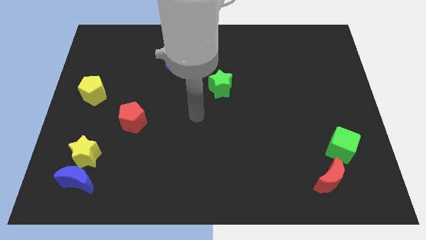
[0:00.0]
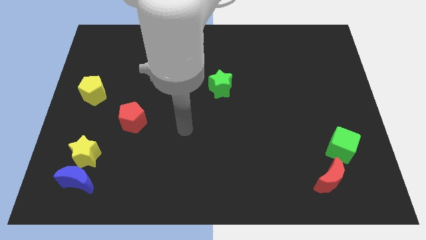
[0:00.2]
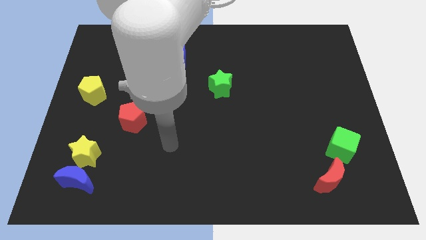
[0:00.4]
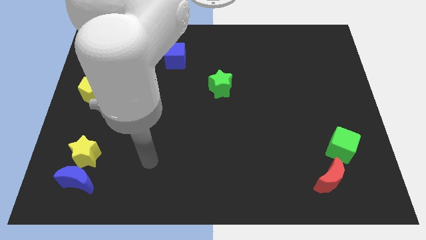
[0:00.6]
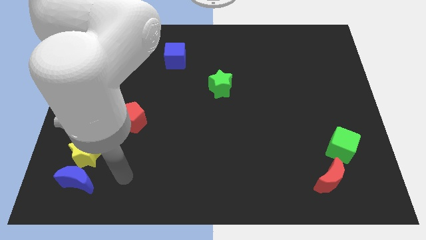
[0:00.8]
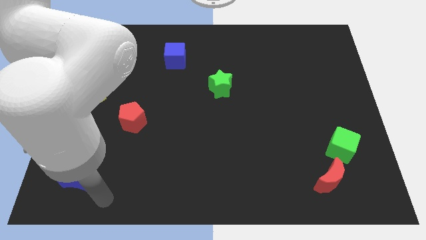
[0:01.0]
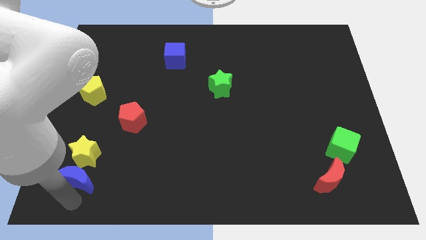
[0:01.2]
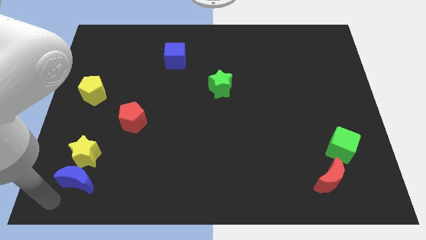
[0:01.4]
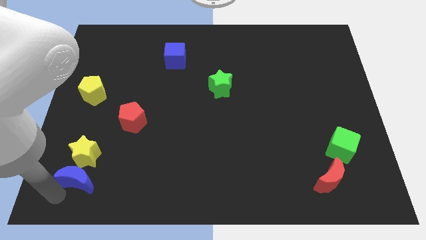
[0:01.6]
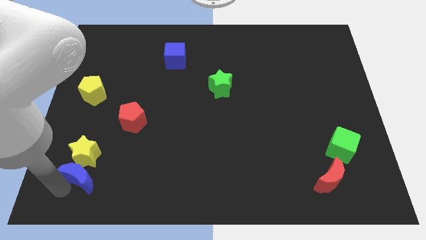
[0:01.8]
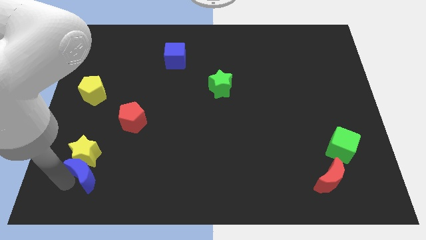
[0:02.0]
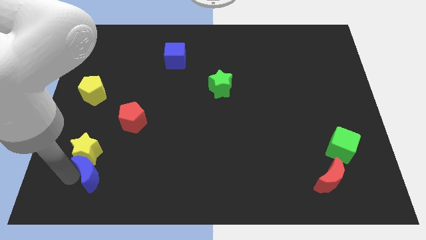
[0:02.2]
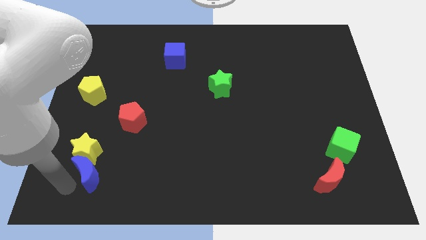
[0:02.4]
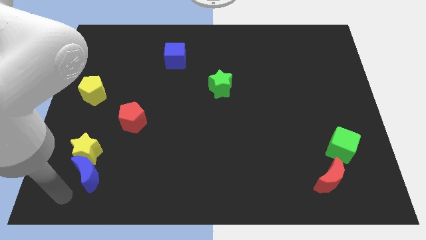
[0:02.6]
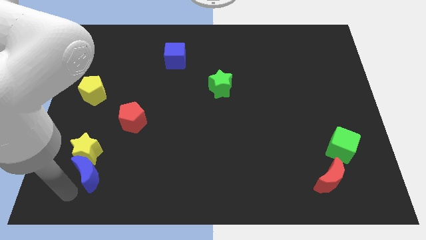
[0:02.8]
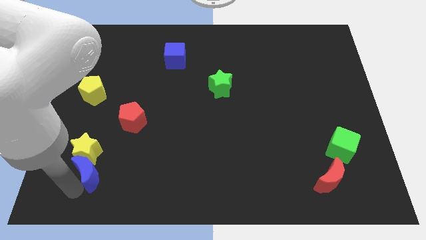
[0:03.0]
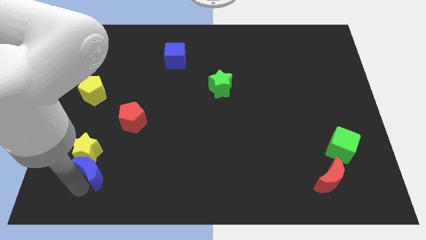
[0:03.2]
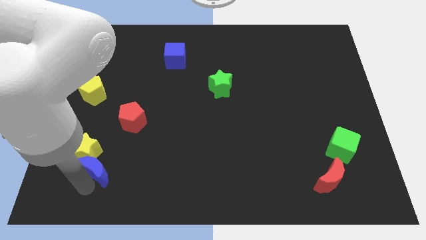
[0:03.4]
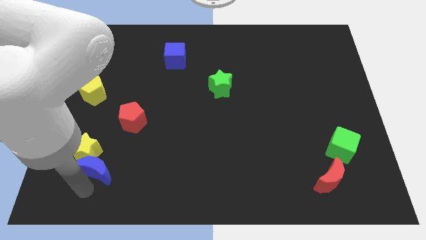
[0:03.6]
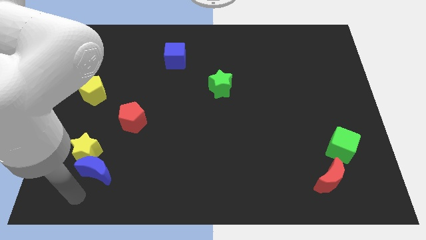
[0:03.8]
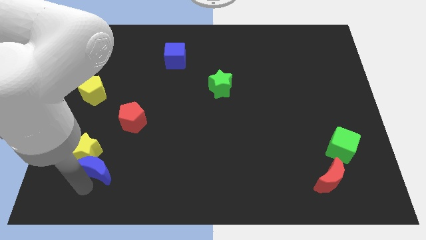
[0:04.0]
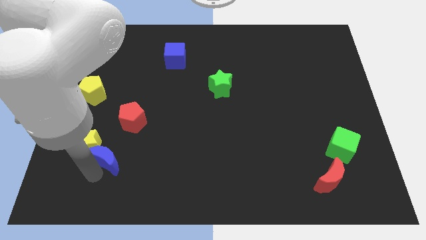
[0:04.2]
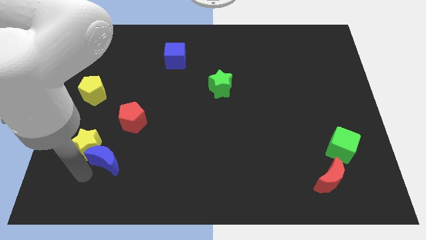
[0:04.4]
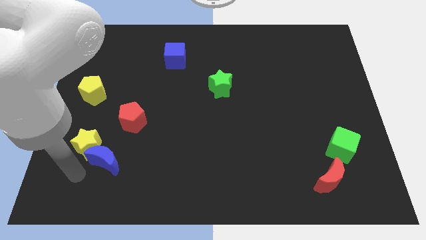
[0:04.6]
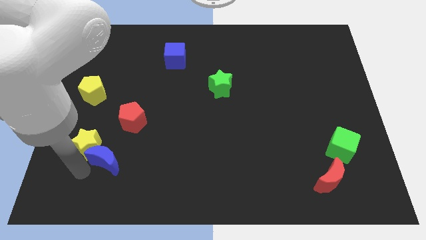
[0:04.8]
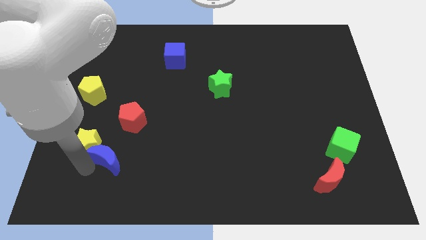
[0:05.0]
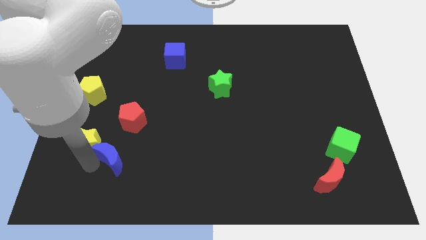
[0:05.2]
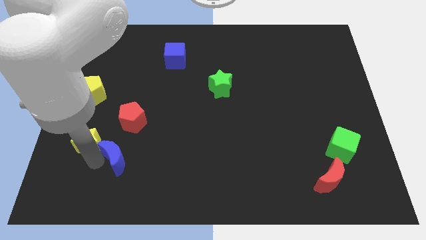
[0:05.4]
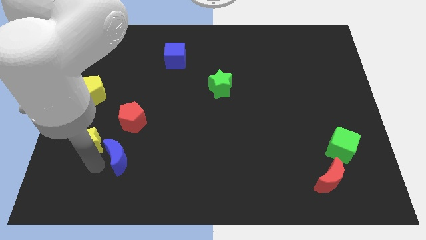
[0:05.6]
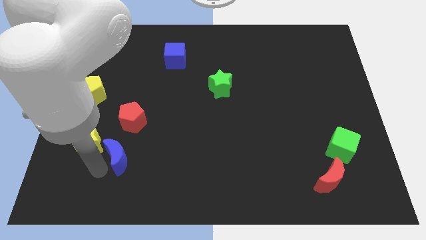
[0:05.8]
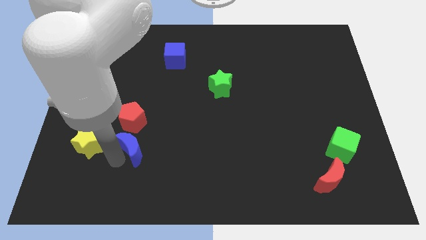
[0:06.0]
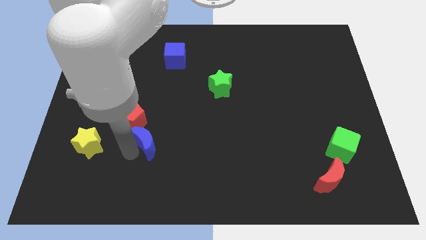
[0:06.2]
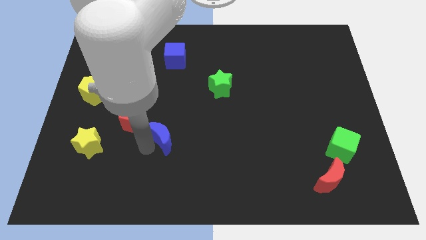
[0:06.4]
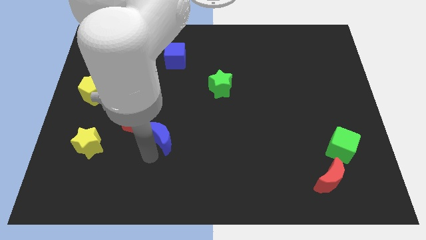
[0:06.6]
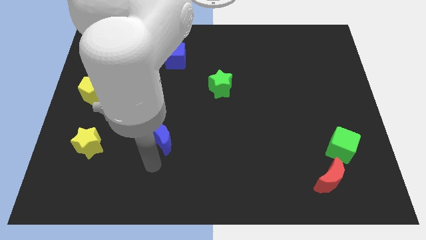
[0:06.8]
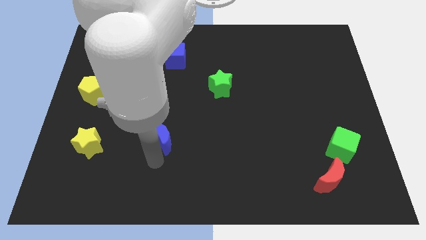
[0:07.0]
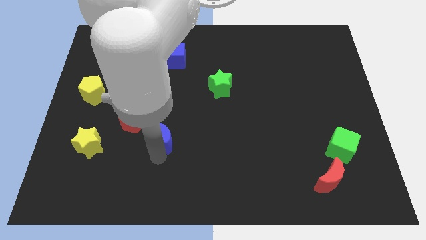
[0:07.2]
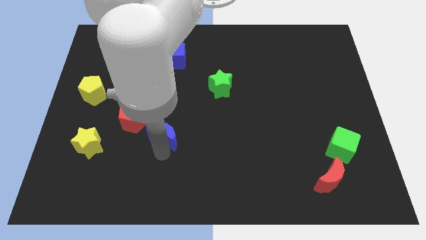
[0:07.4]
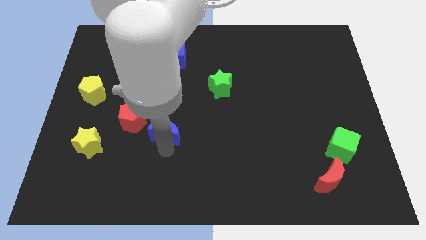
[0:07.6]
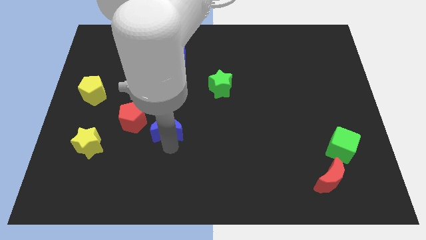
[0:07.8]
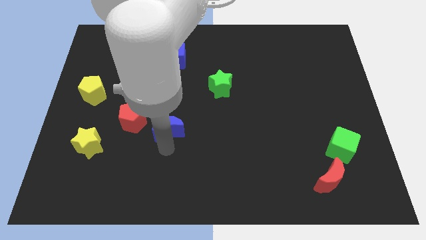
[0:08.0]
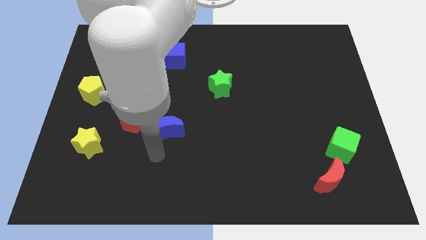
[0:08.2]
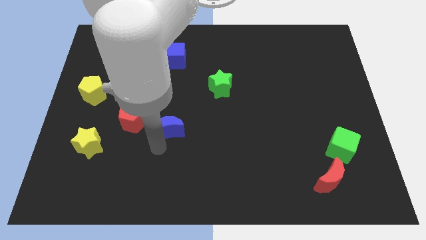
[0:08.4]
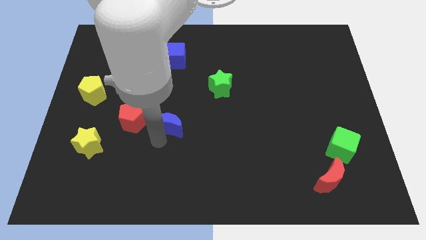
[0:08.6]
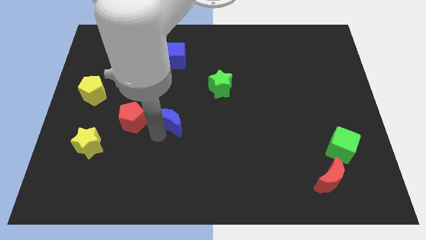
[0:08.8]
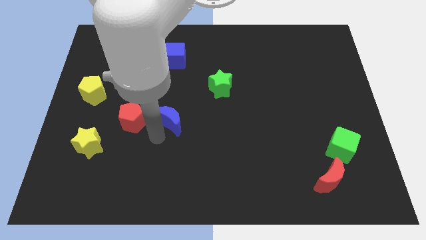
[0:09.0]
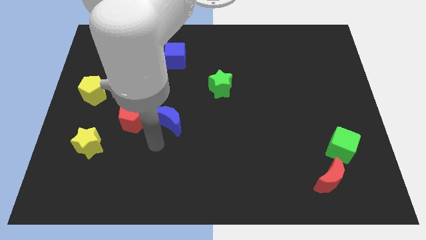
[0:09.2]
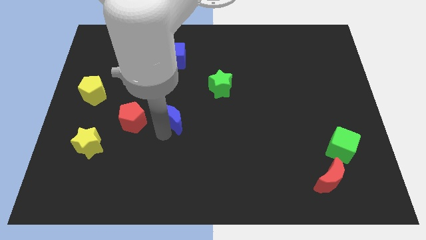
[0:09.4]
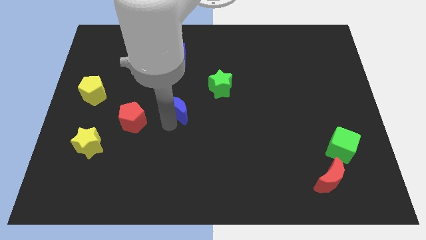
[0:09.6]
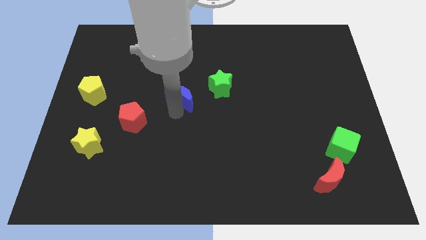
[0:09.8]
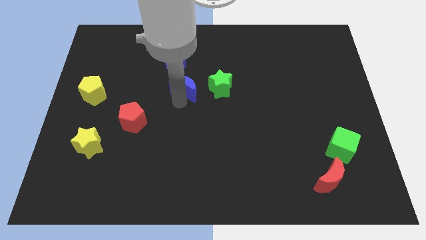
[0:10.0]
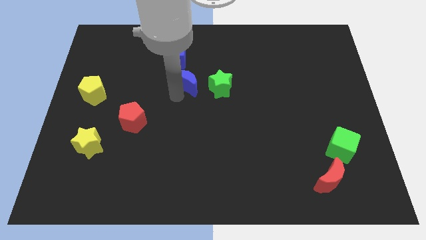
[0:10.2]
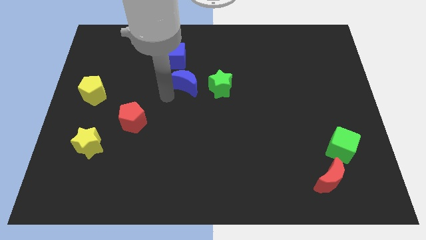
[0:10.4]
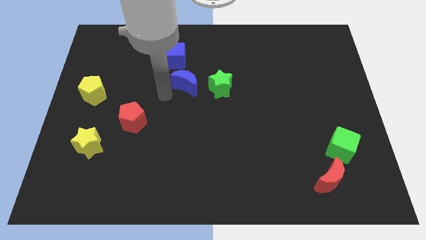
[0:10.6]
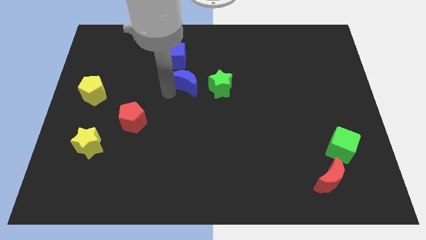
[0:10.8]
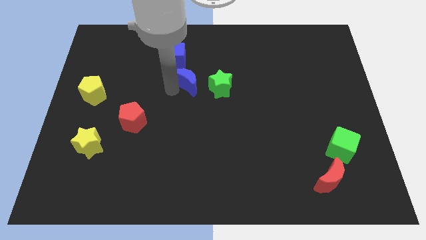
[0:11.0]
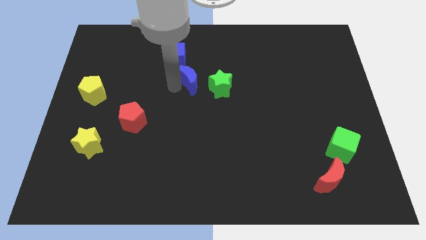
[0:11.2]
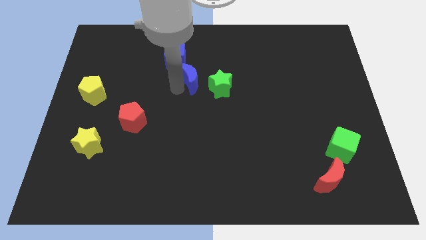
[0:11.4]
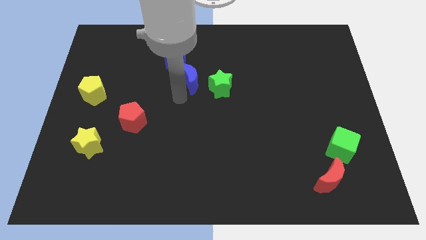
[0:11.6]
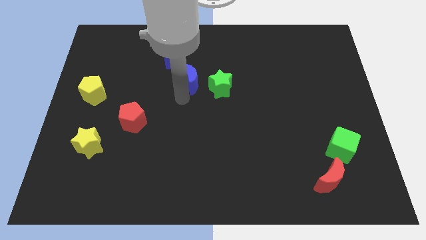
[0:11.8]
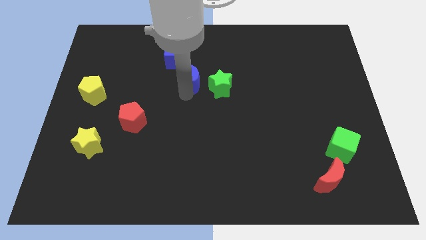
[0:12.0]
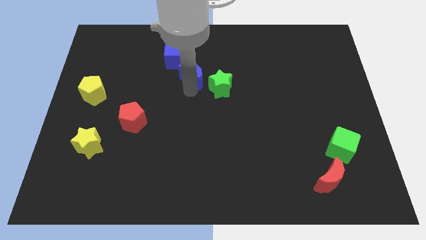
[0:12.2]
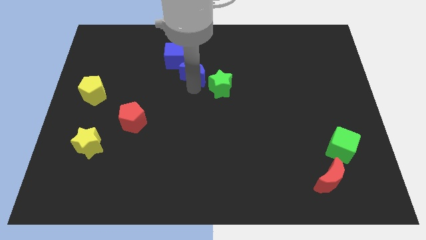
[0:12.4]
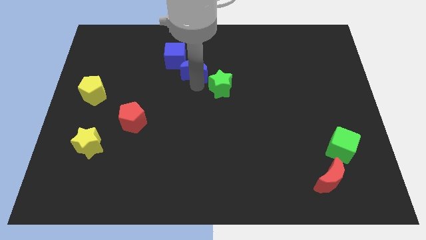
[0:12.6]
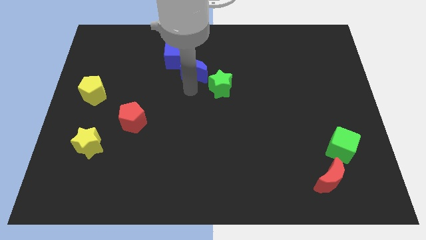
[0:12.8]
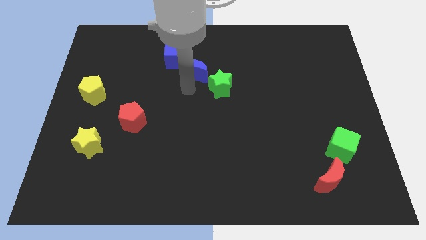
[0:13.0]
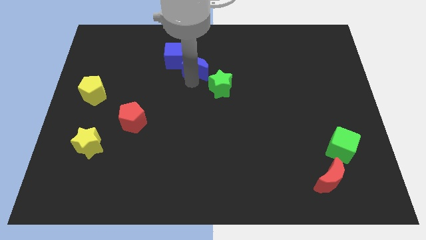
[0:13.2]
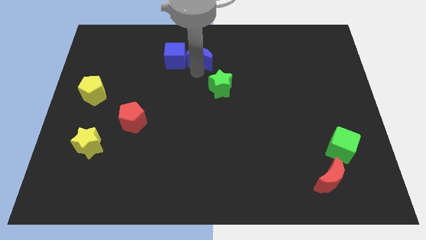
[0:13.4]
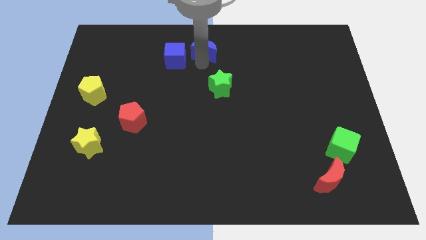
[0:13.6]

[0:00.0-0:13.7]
push the blue moon to the top
